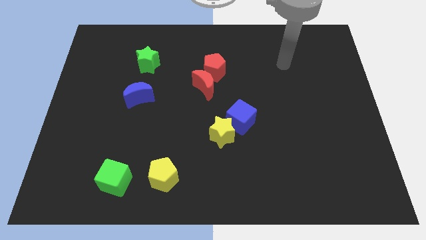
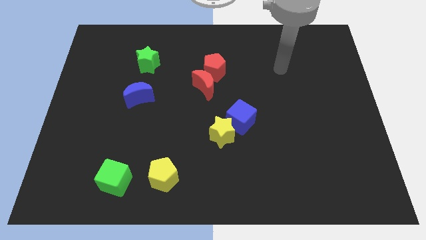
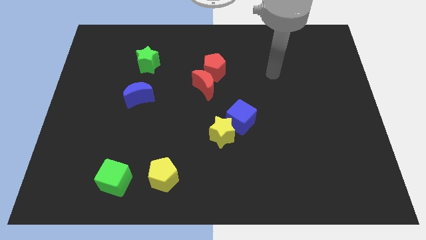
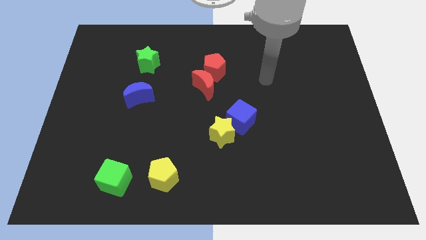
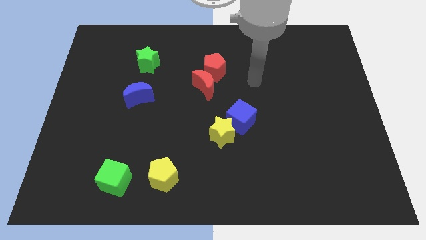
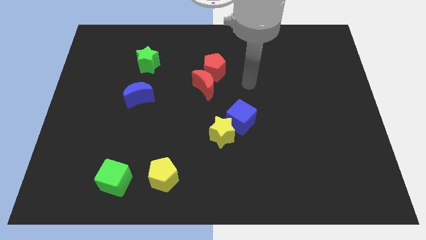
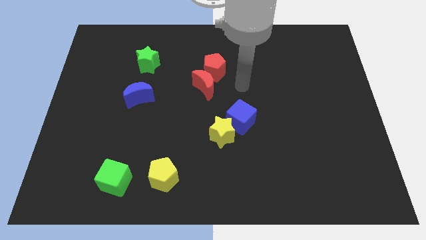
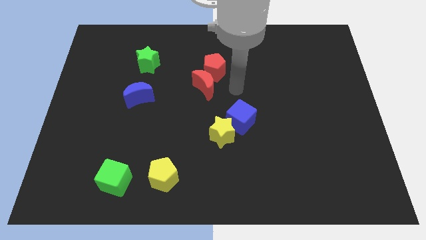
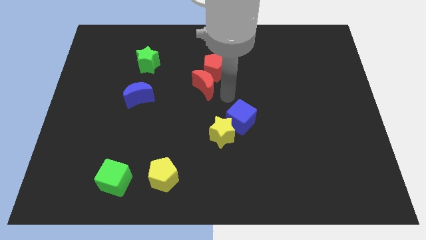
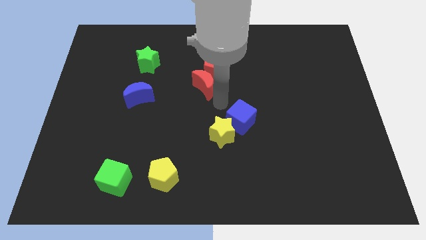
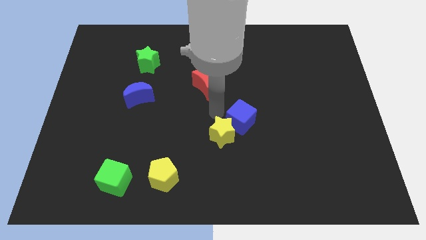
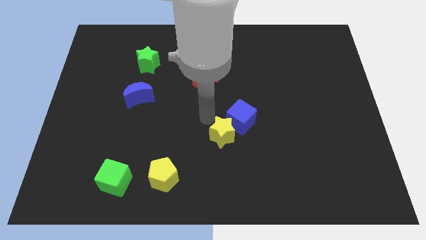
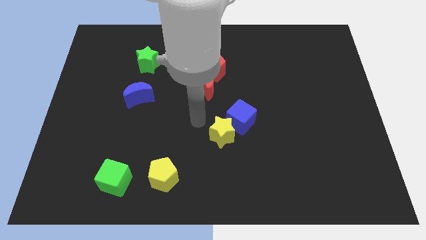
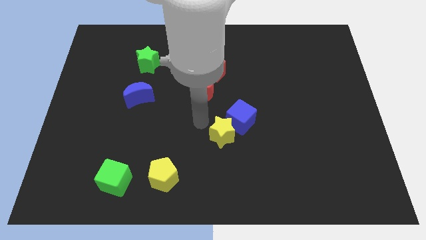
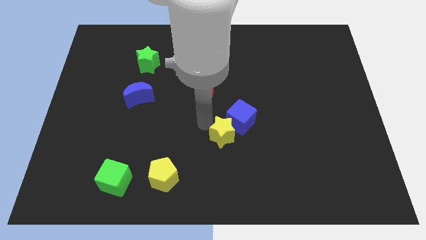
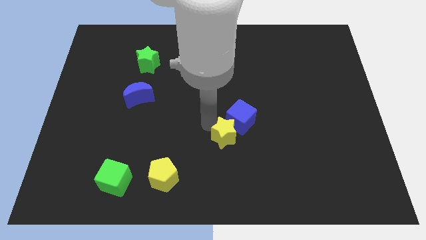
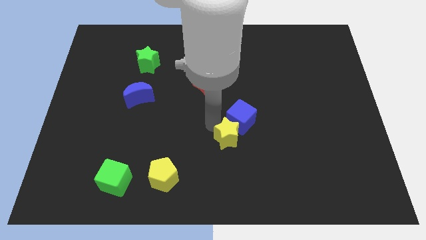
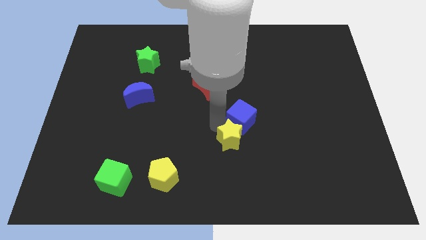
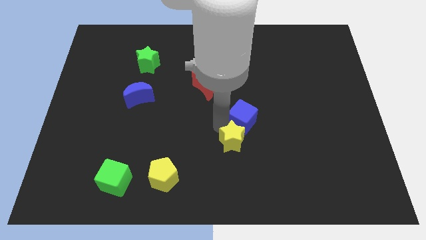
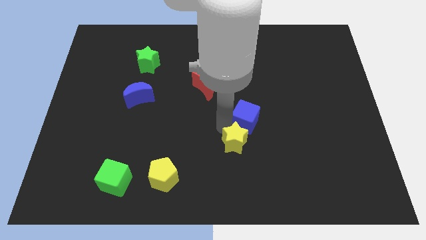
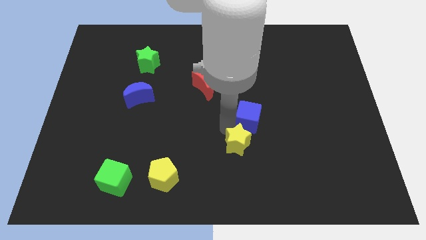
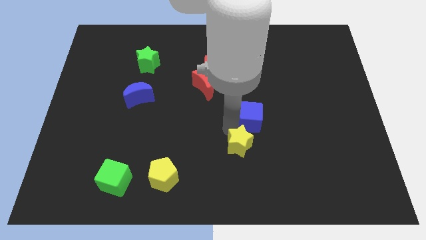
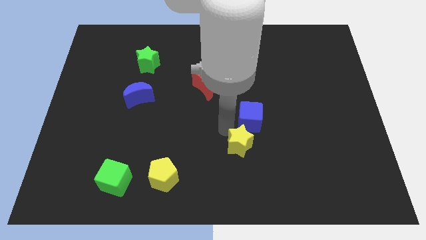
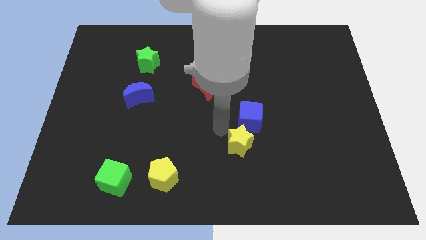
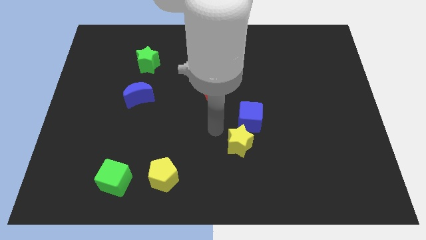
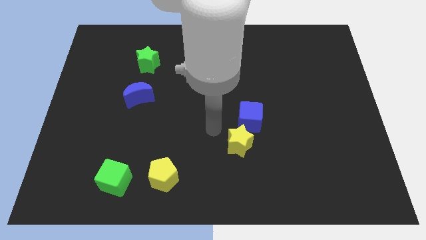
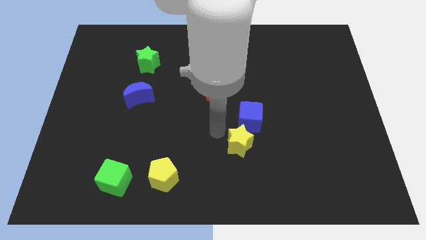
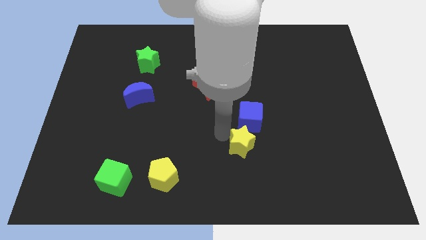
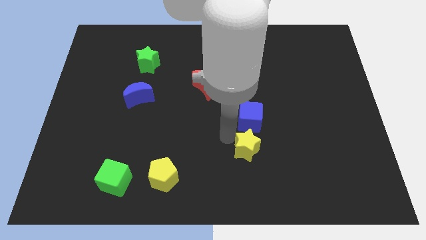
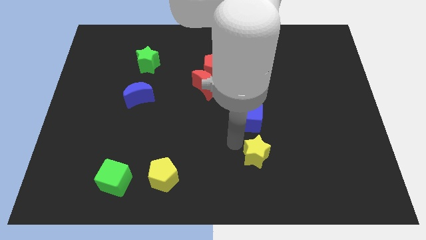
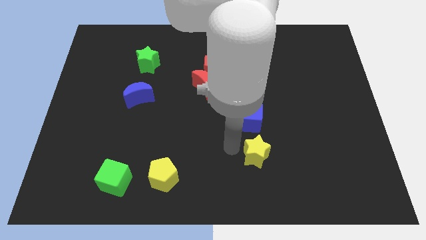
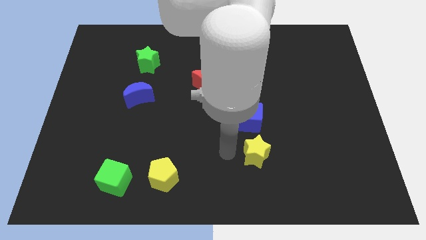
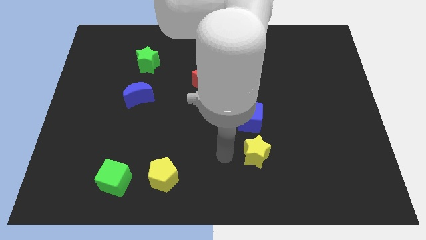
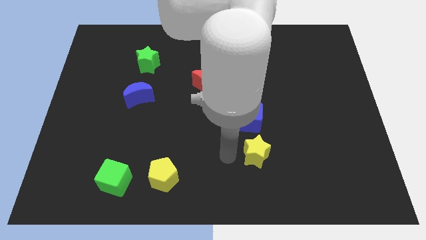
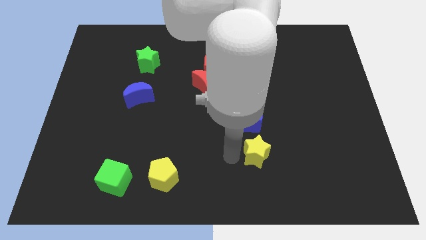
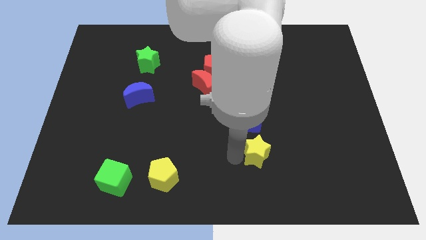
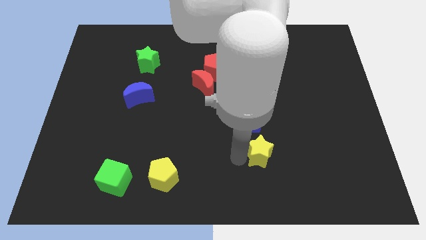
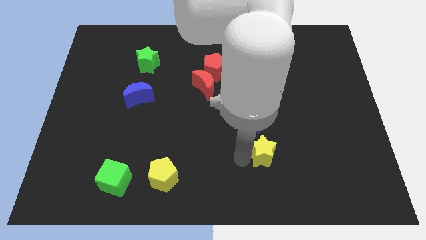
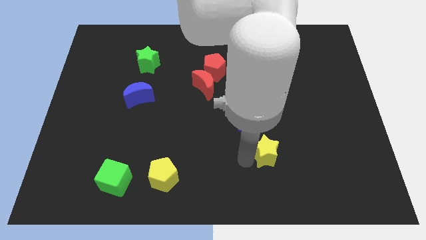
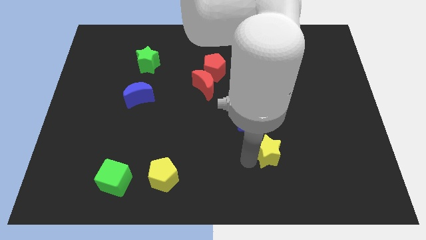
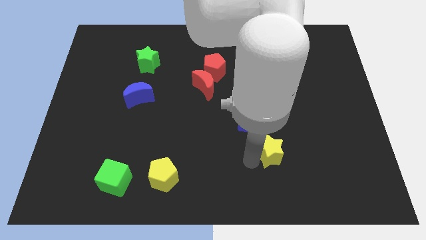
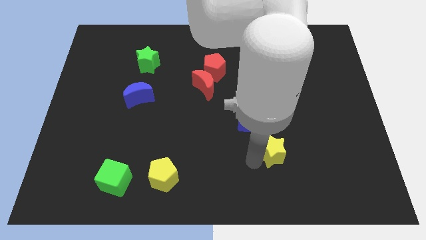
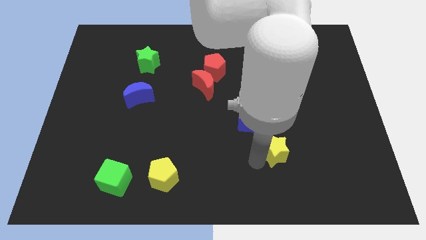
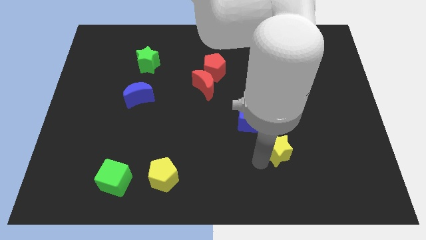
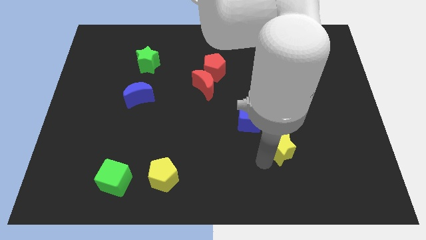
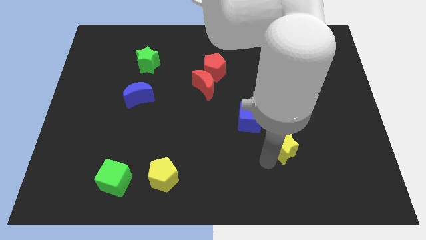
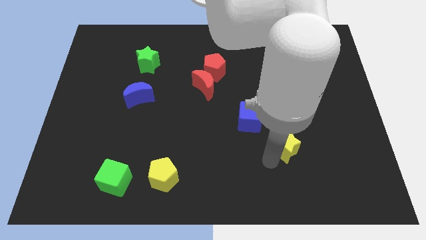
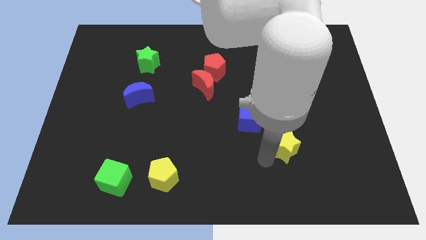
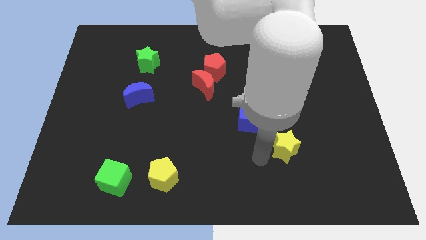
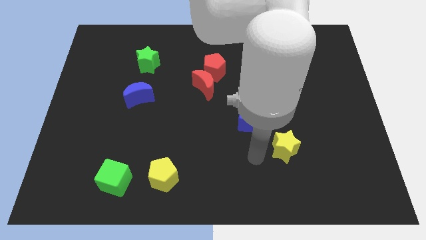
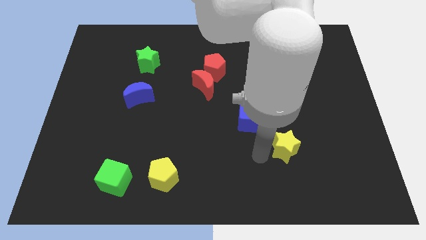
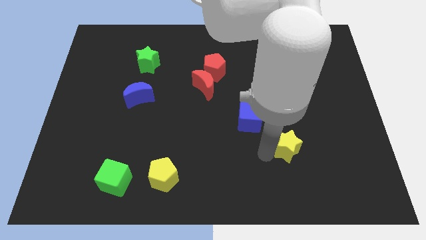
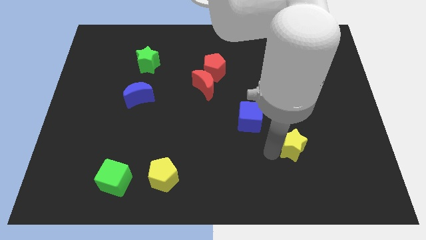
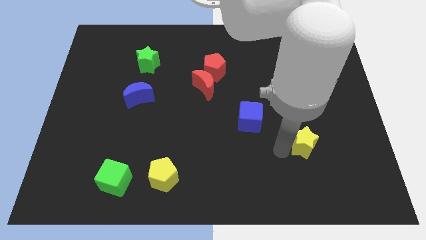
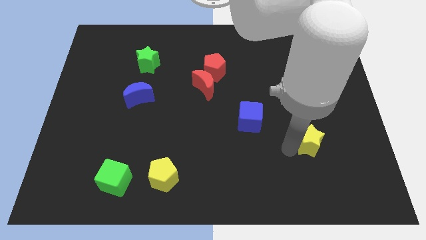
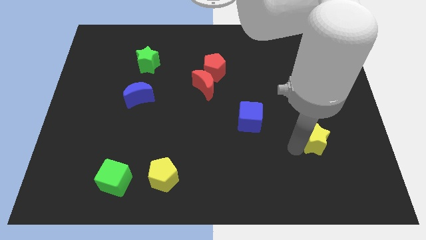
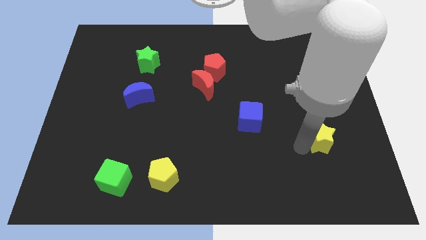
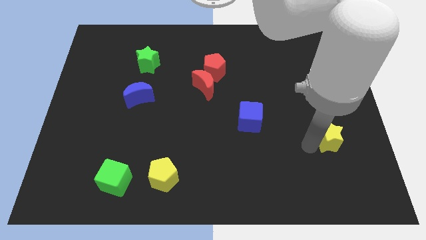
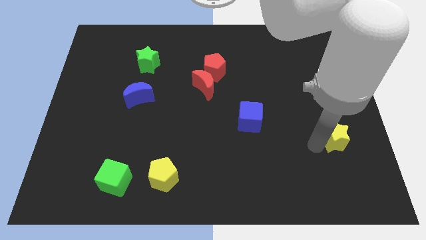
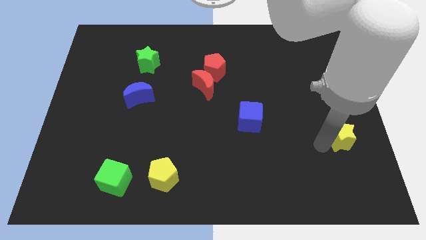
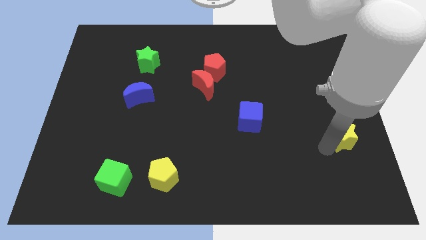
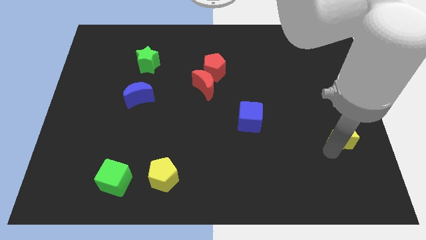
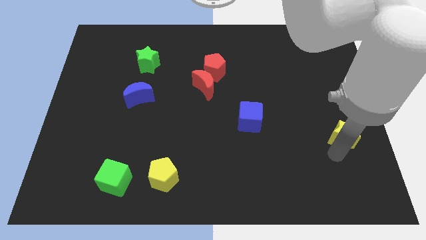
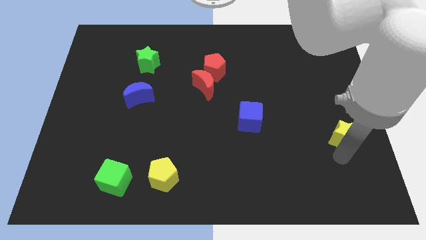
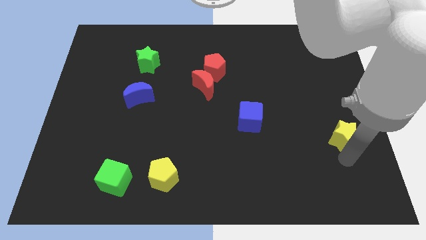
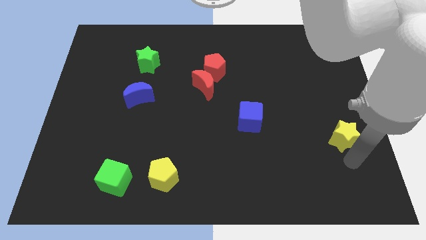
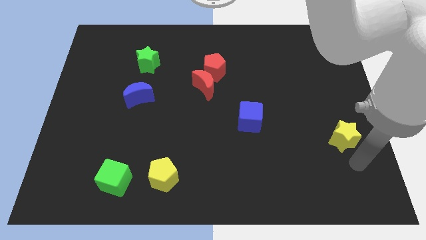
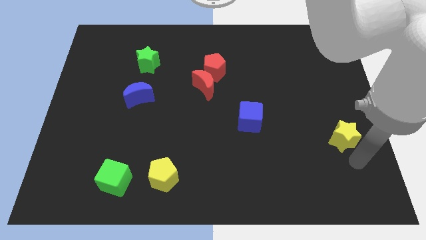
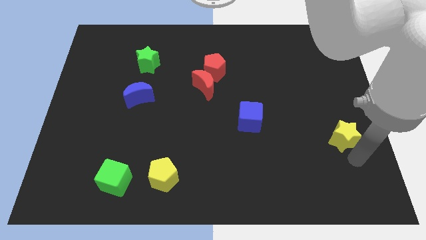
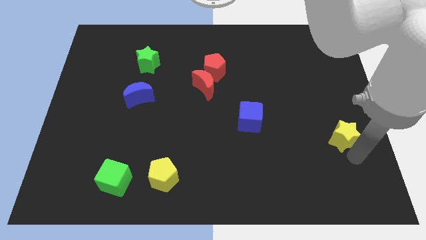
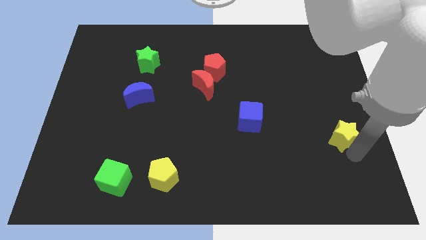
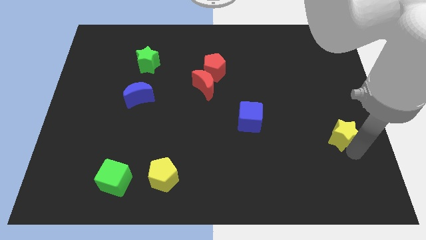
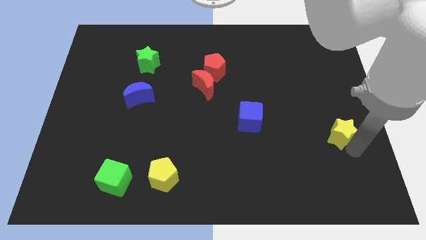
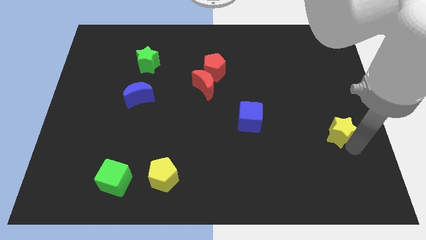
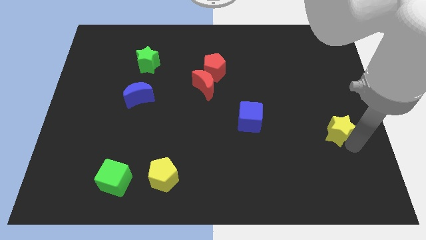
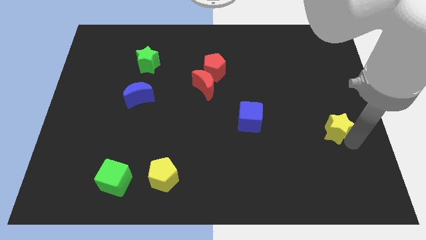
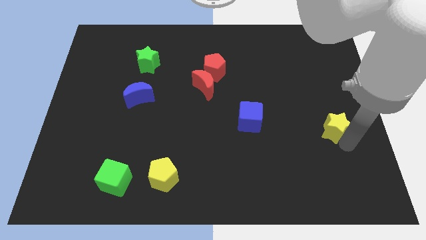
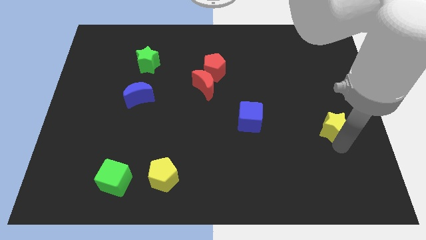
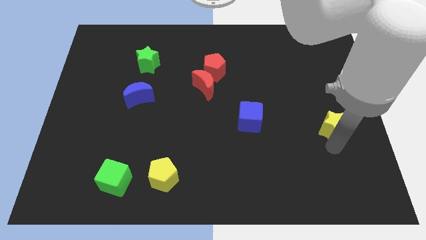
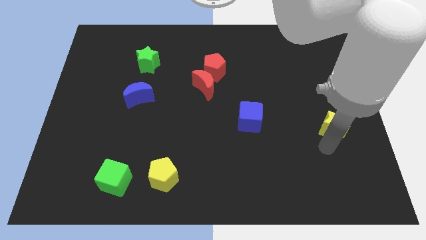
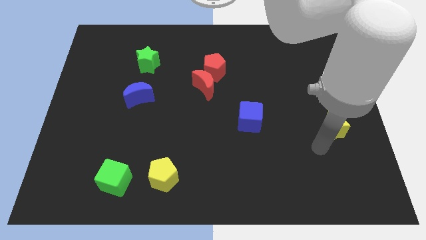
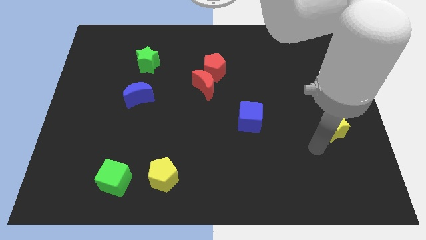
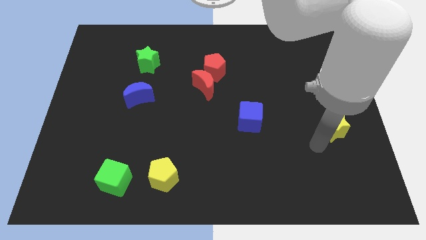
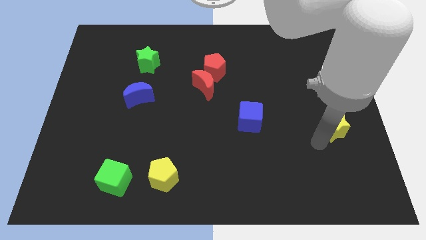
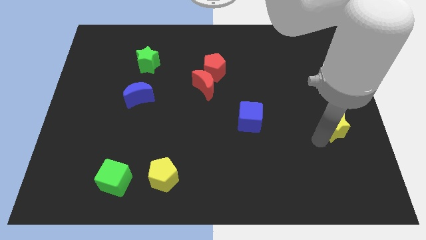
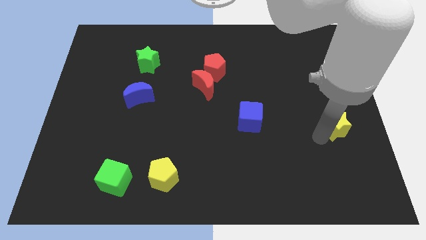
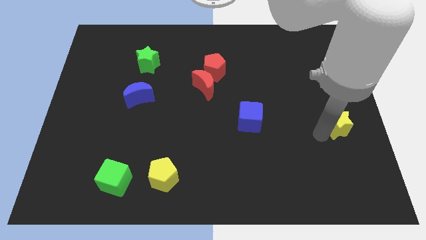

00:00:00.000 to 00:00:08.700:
put the yellow star to the center right
